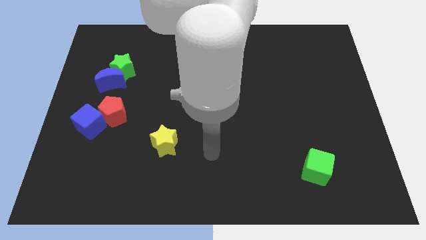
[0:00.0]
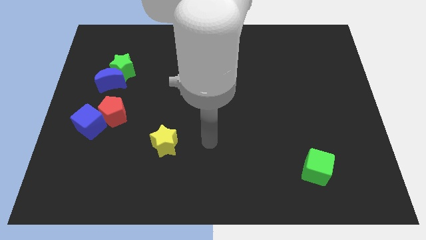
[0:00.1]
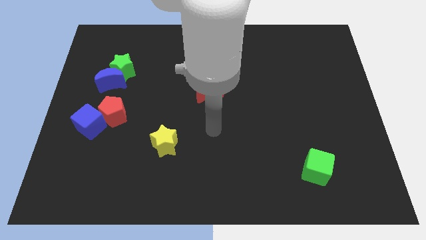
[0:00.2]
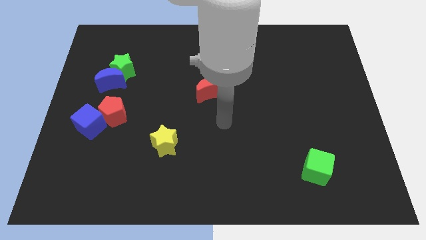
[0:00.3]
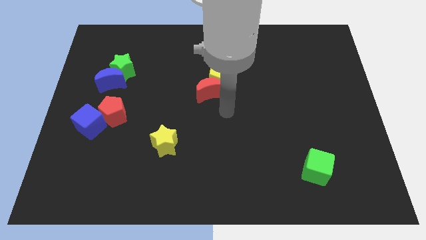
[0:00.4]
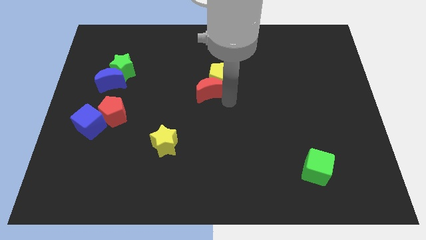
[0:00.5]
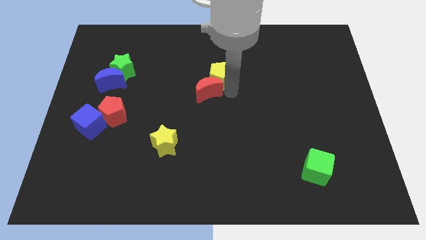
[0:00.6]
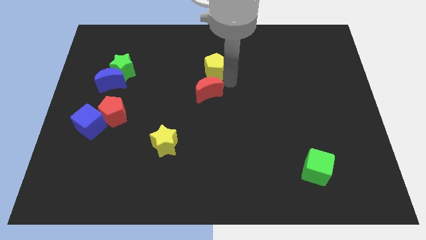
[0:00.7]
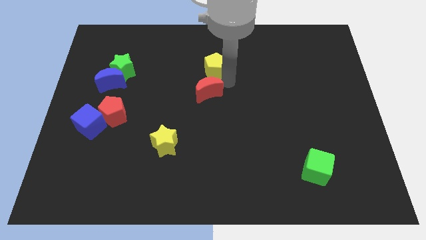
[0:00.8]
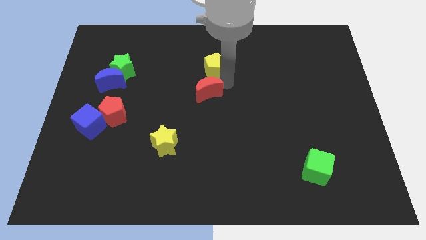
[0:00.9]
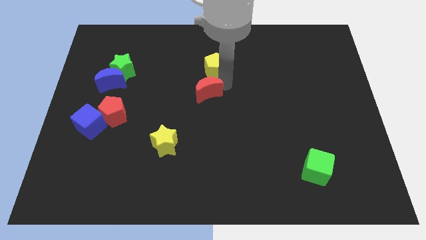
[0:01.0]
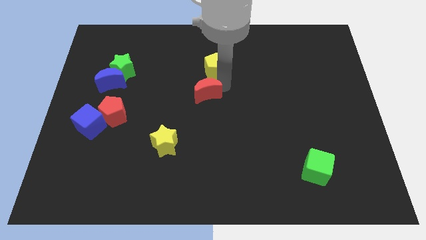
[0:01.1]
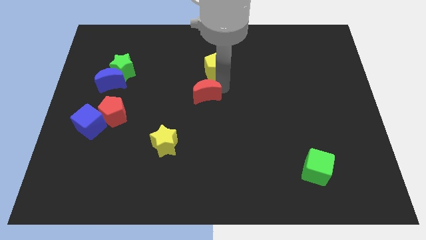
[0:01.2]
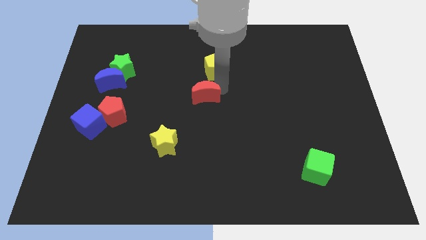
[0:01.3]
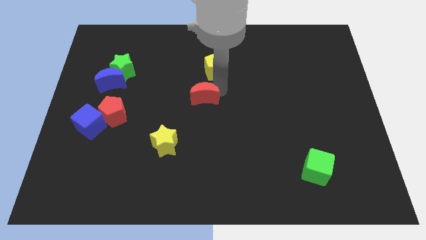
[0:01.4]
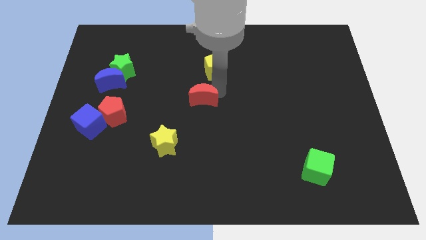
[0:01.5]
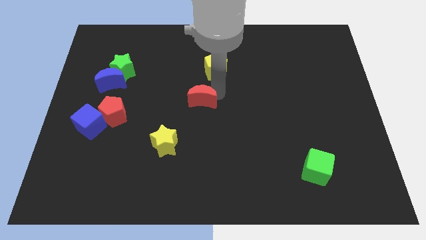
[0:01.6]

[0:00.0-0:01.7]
separate the red moon from the yellow pentagon

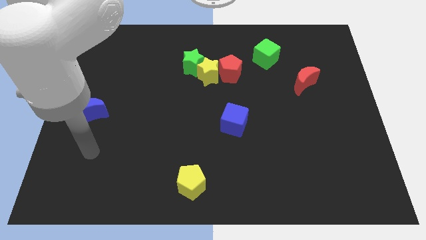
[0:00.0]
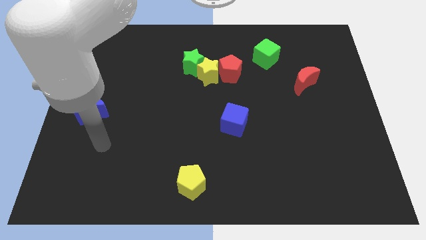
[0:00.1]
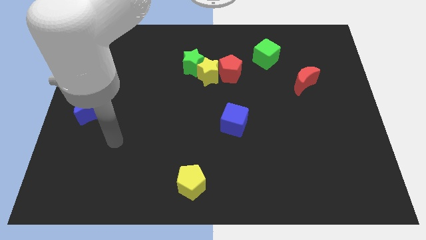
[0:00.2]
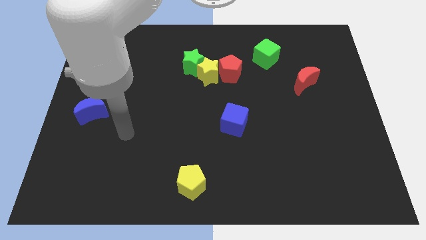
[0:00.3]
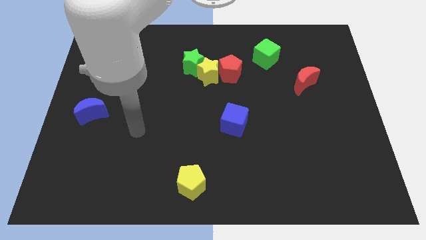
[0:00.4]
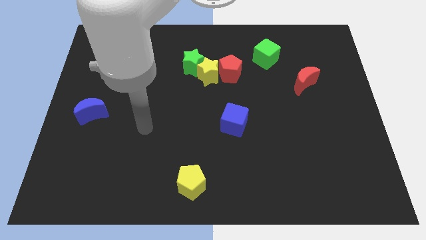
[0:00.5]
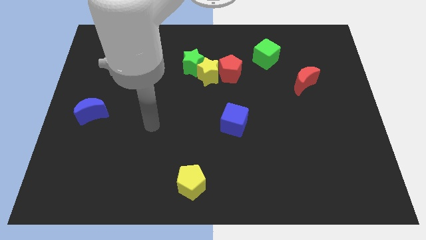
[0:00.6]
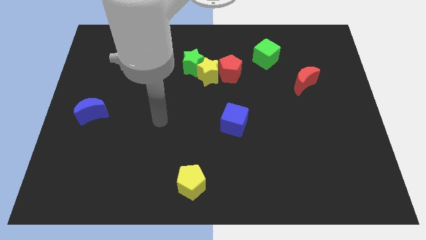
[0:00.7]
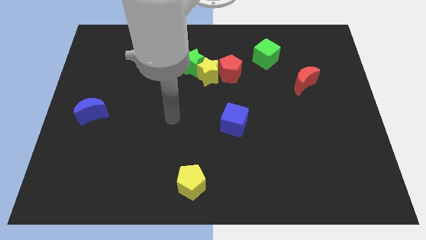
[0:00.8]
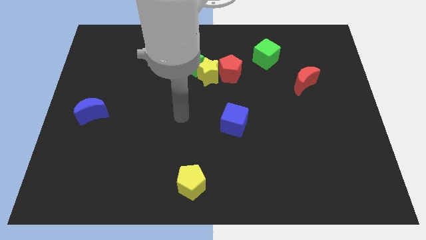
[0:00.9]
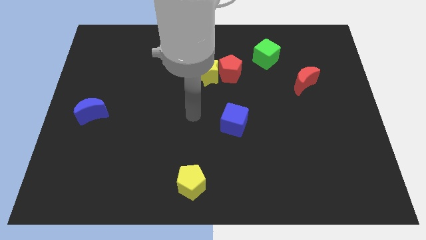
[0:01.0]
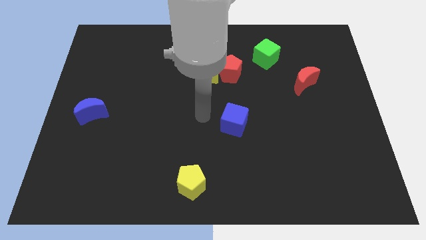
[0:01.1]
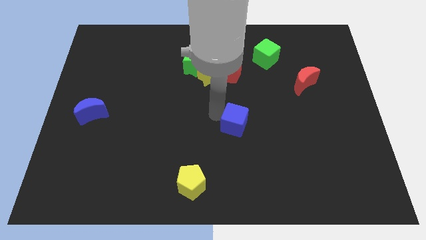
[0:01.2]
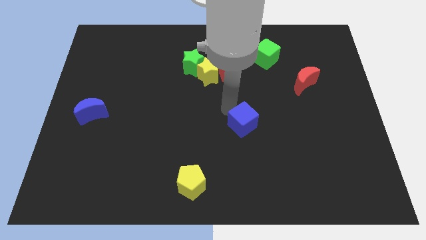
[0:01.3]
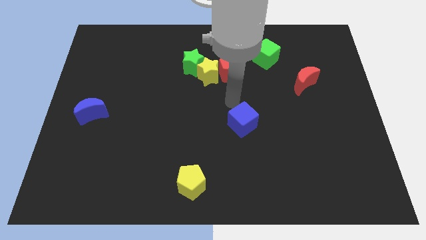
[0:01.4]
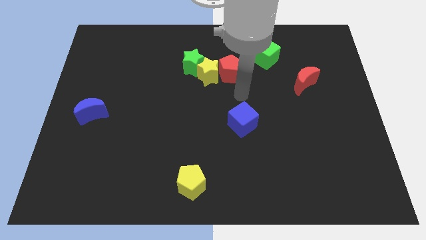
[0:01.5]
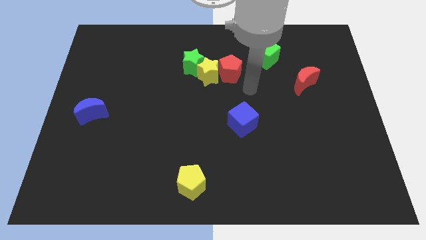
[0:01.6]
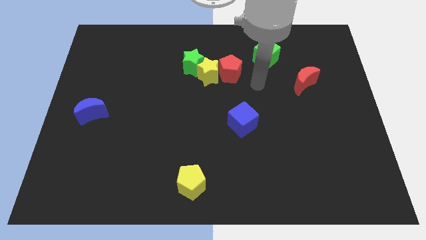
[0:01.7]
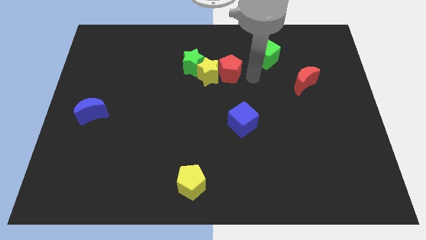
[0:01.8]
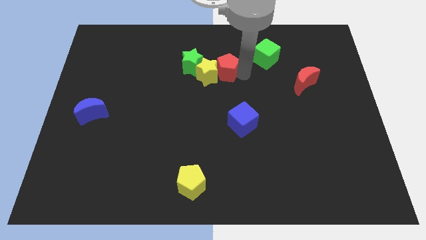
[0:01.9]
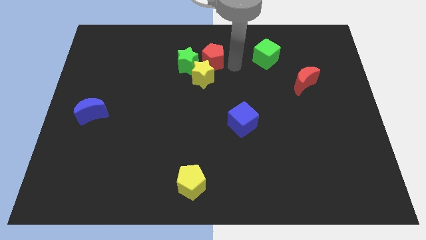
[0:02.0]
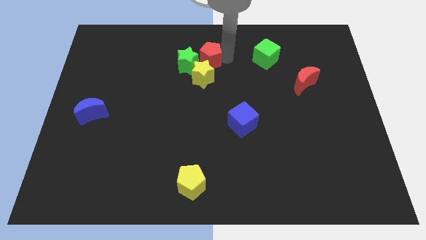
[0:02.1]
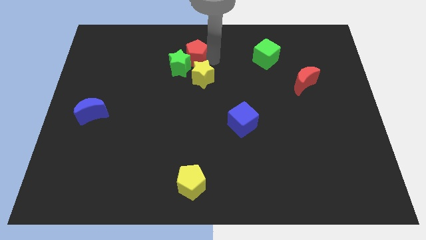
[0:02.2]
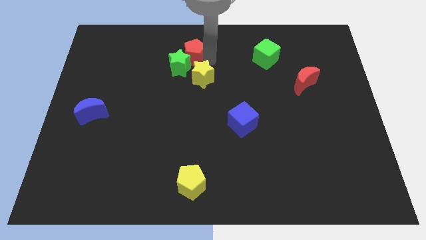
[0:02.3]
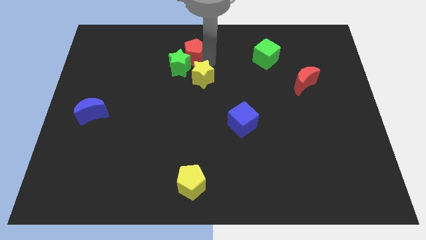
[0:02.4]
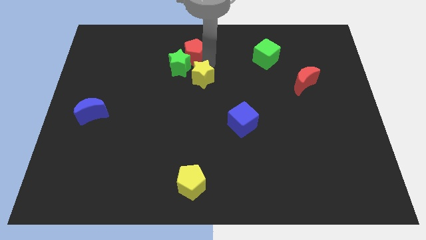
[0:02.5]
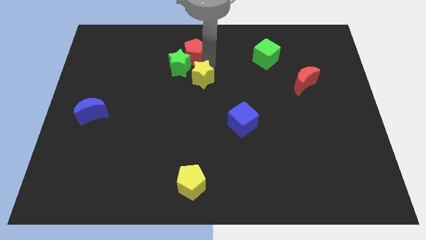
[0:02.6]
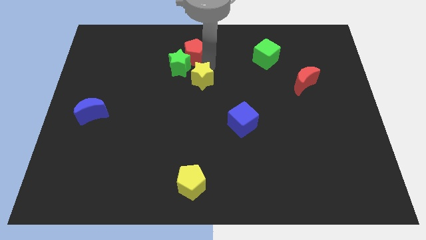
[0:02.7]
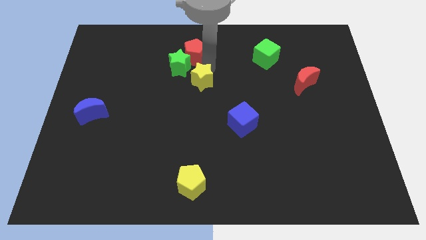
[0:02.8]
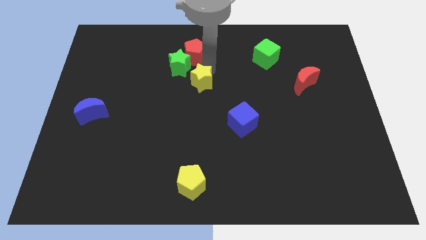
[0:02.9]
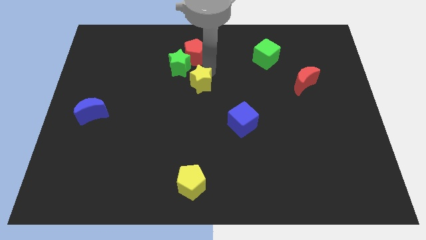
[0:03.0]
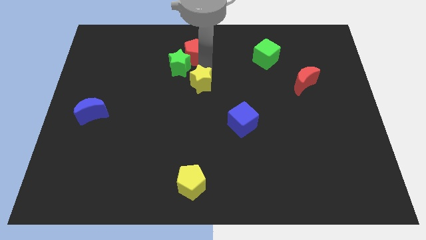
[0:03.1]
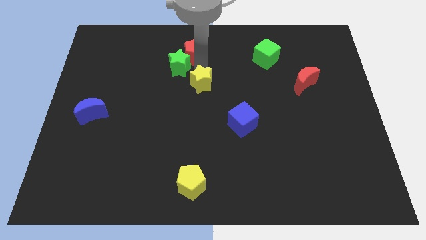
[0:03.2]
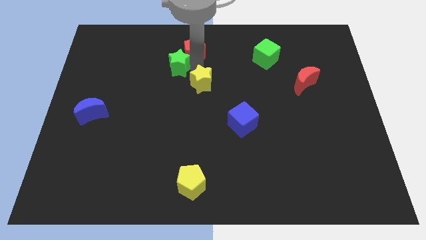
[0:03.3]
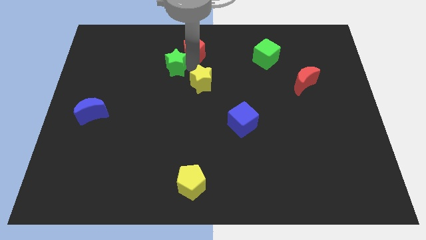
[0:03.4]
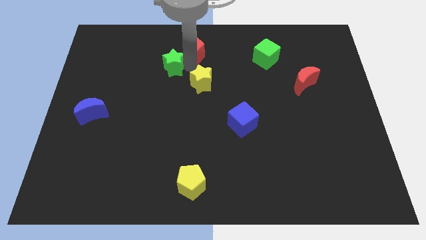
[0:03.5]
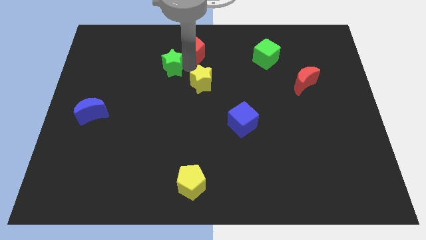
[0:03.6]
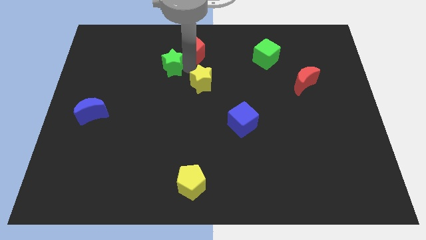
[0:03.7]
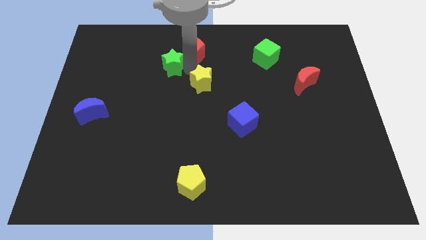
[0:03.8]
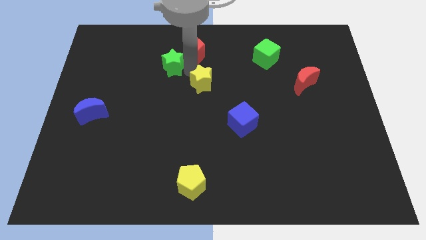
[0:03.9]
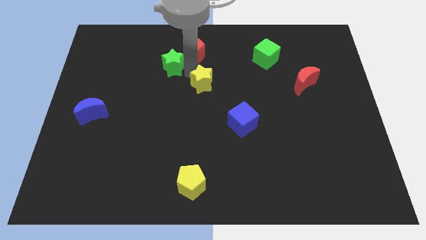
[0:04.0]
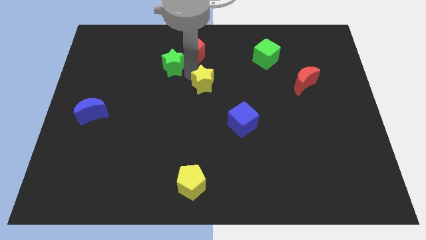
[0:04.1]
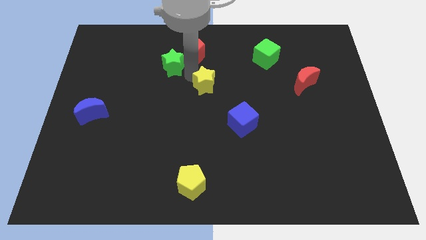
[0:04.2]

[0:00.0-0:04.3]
separate the yellow star from the green star and red pentagon

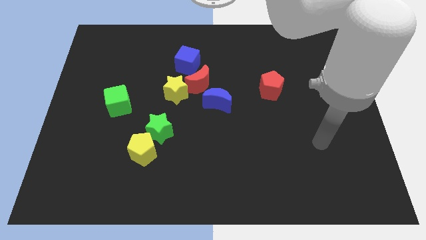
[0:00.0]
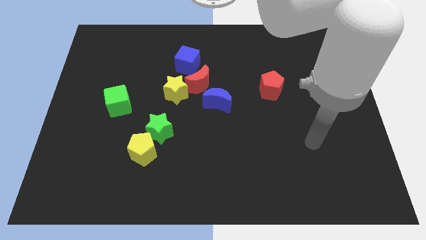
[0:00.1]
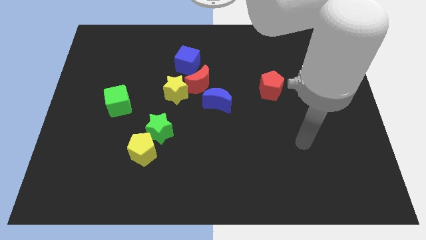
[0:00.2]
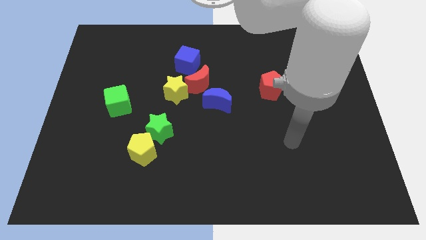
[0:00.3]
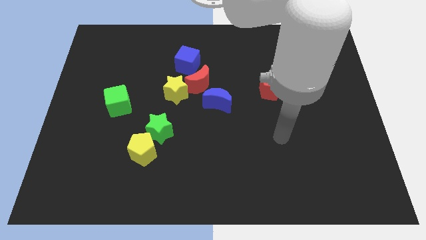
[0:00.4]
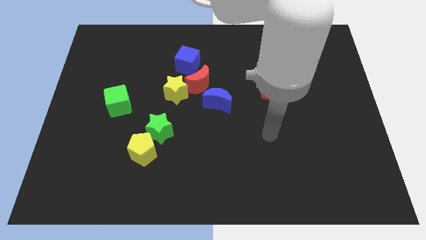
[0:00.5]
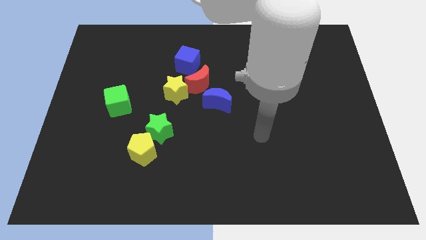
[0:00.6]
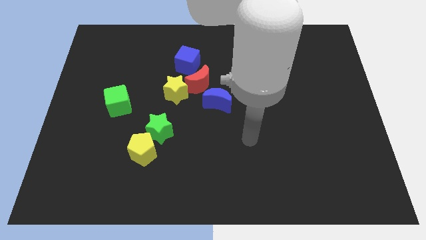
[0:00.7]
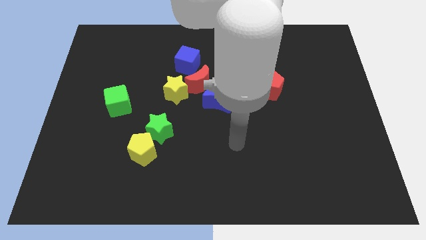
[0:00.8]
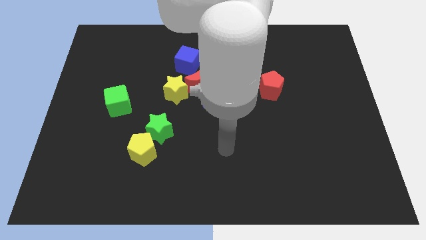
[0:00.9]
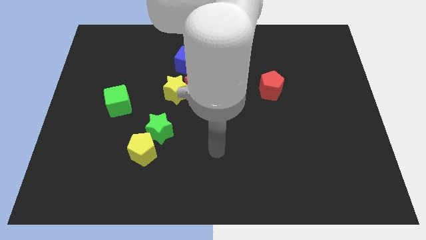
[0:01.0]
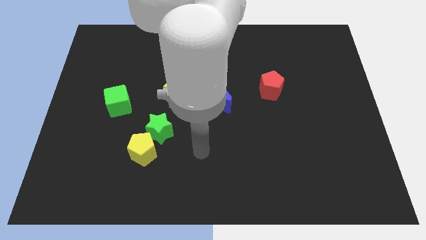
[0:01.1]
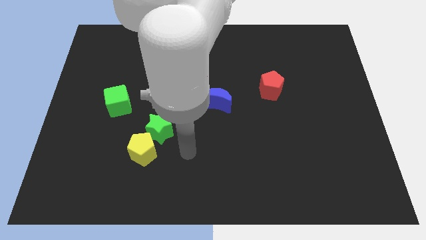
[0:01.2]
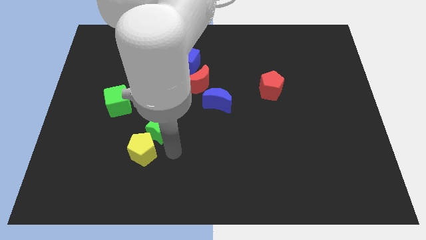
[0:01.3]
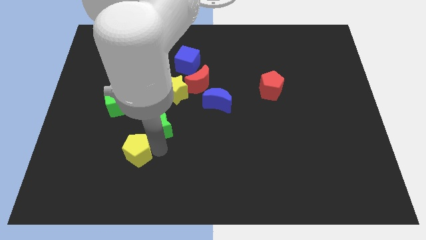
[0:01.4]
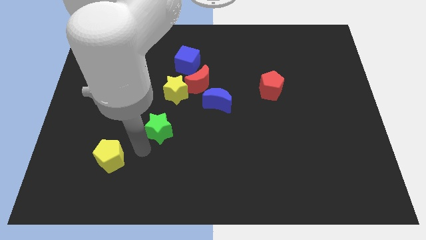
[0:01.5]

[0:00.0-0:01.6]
pull the green star apart from the yellow pentagon

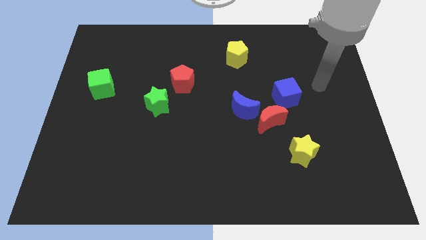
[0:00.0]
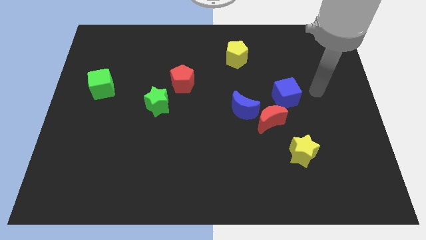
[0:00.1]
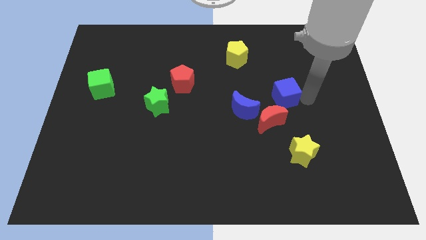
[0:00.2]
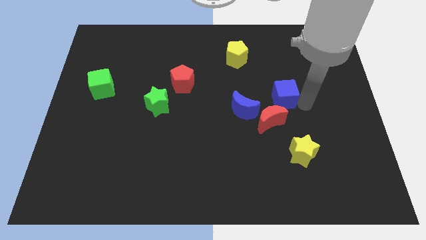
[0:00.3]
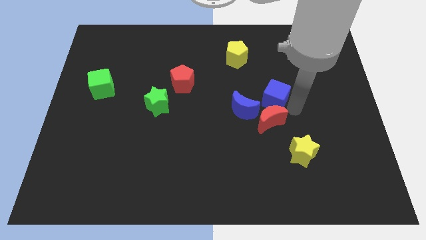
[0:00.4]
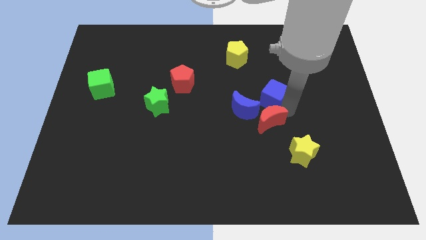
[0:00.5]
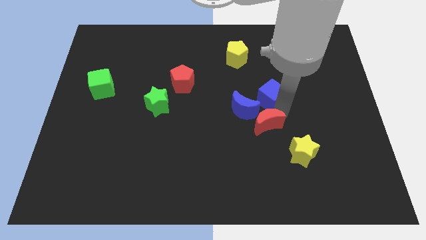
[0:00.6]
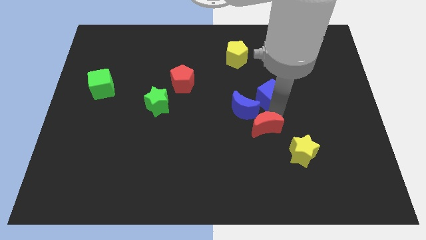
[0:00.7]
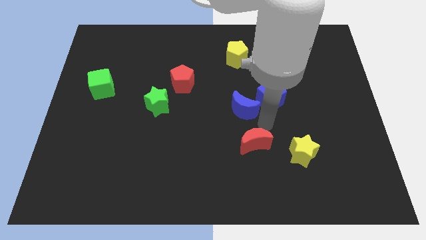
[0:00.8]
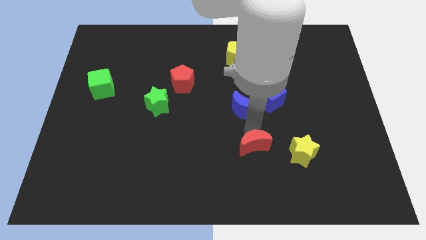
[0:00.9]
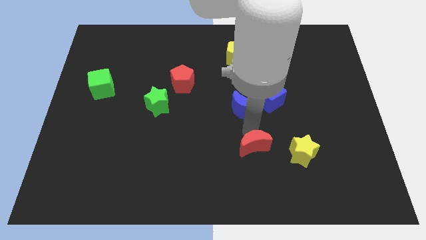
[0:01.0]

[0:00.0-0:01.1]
move the blue moon away from the red moon

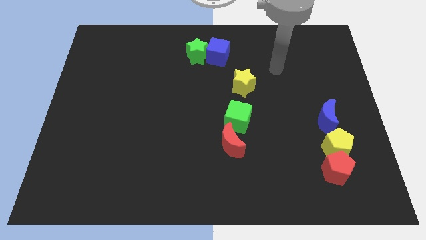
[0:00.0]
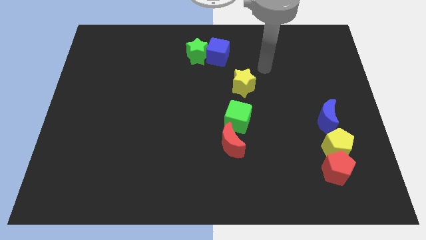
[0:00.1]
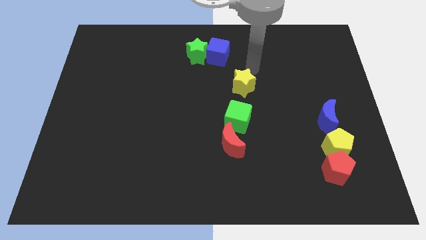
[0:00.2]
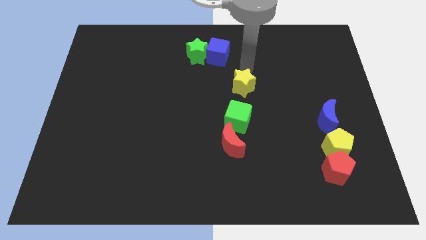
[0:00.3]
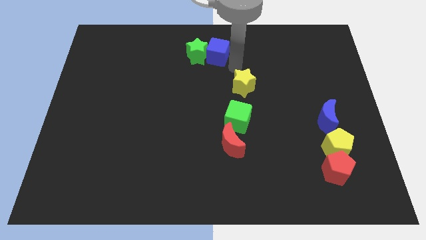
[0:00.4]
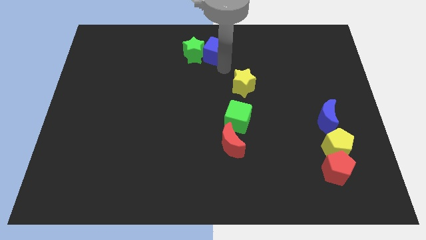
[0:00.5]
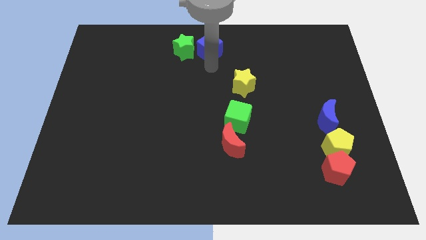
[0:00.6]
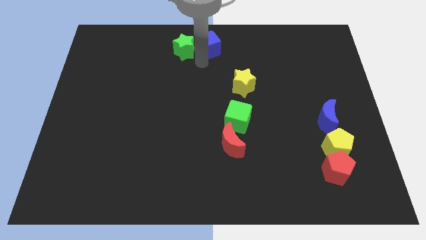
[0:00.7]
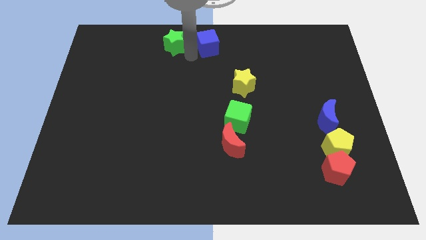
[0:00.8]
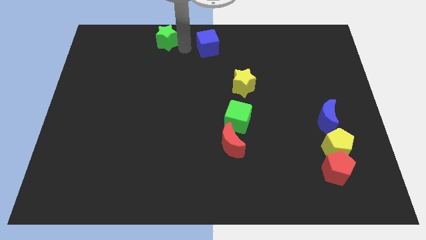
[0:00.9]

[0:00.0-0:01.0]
move the blue cube away from the green star
